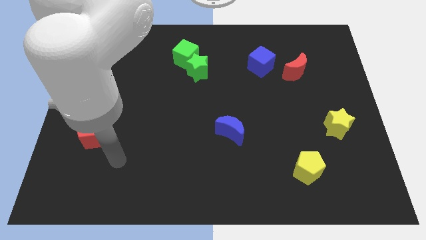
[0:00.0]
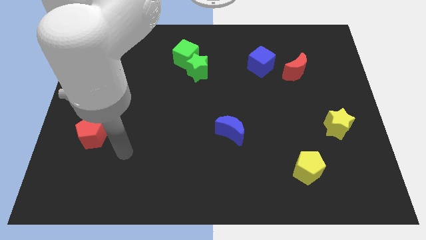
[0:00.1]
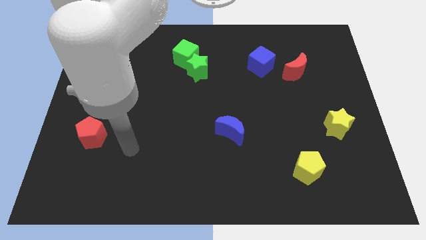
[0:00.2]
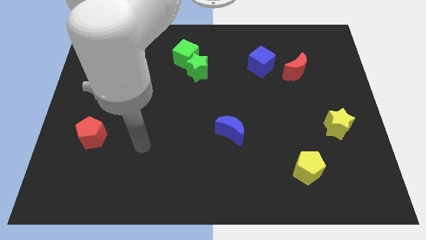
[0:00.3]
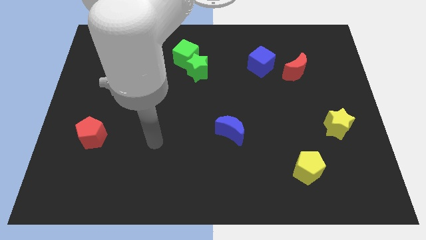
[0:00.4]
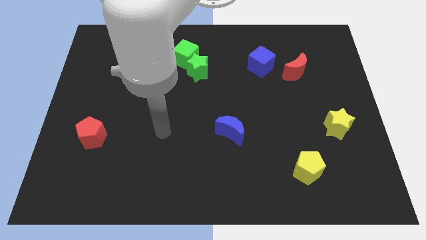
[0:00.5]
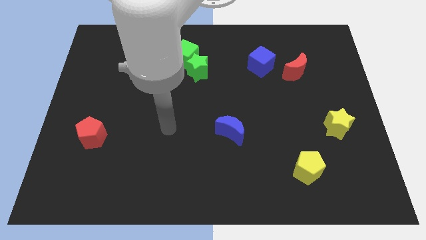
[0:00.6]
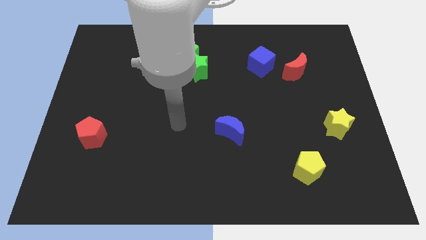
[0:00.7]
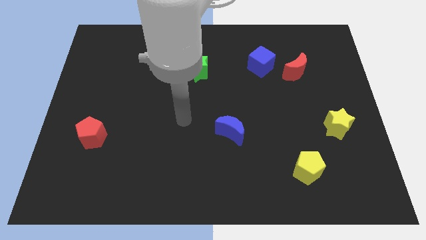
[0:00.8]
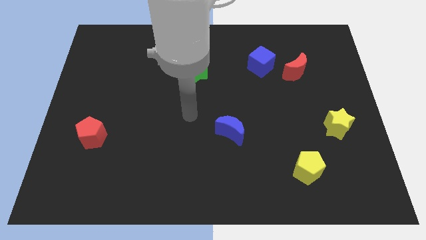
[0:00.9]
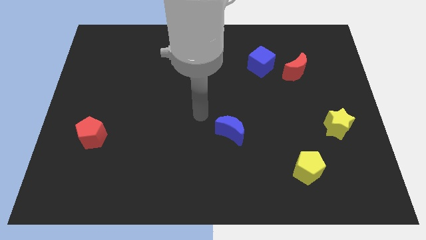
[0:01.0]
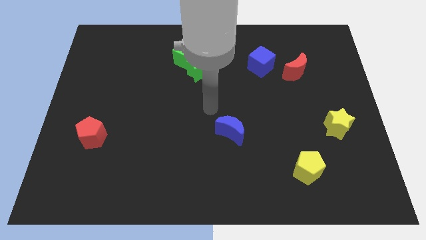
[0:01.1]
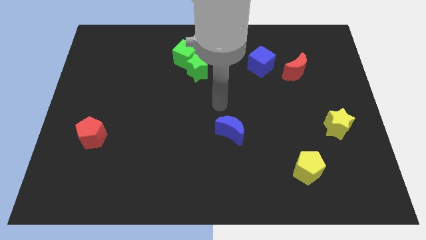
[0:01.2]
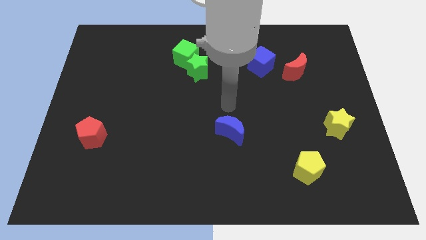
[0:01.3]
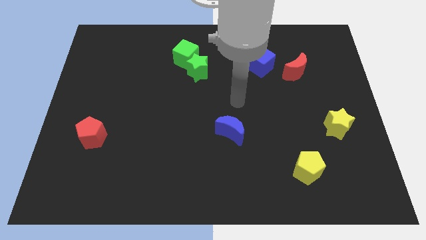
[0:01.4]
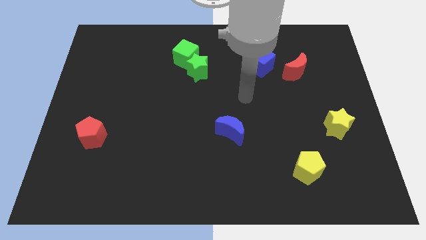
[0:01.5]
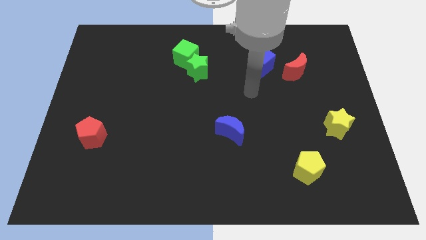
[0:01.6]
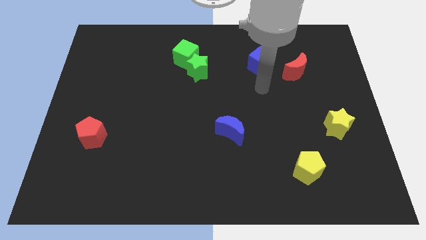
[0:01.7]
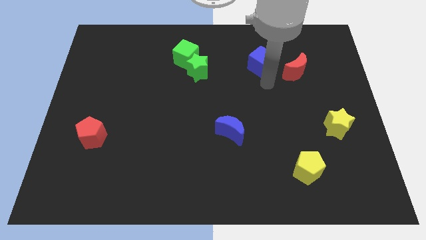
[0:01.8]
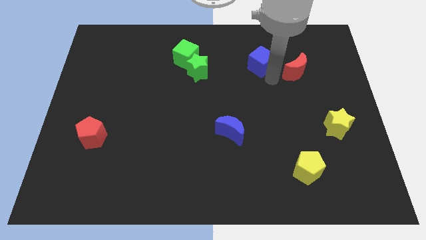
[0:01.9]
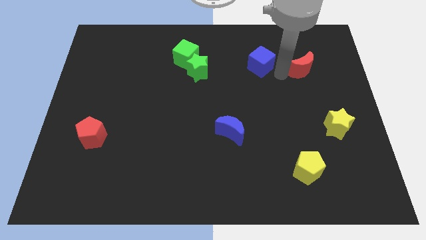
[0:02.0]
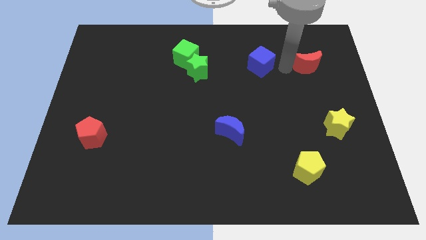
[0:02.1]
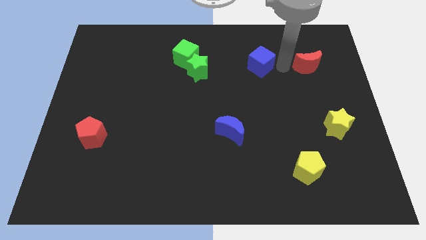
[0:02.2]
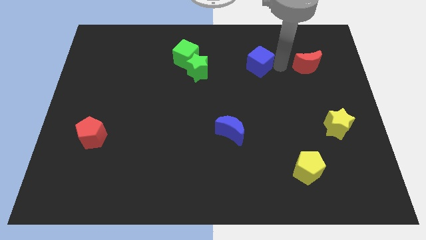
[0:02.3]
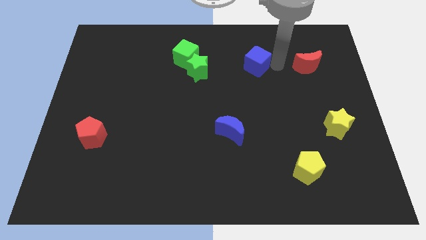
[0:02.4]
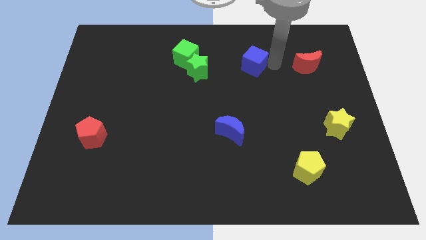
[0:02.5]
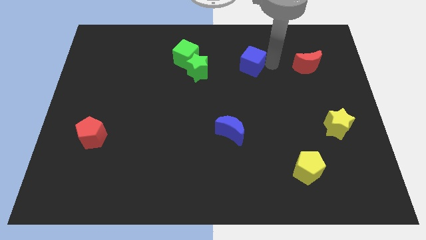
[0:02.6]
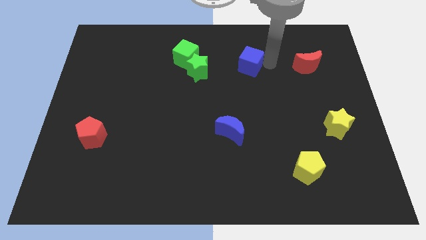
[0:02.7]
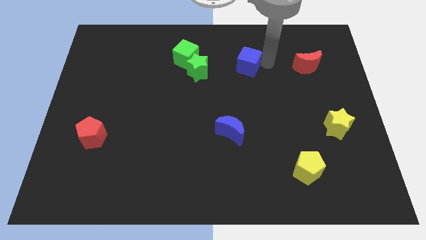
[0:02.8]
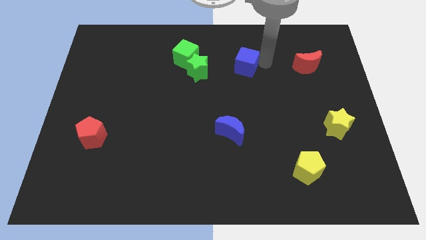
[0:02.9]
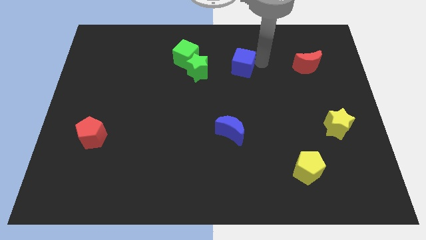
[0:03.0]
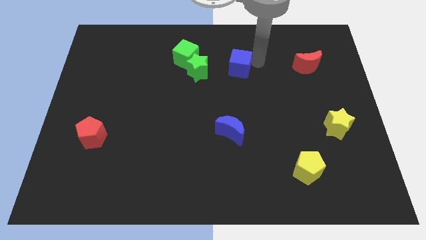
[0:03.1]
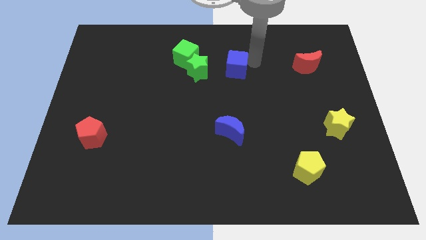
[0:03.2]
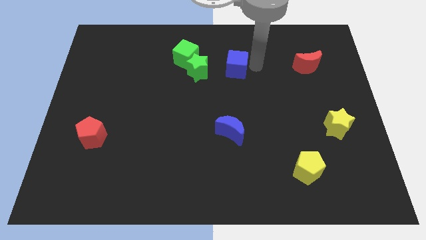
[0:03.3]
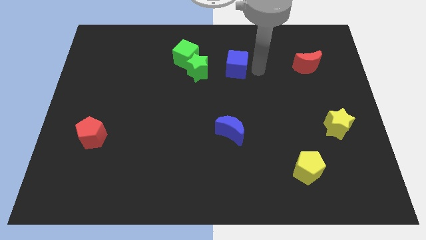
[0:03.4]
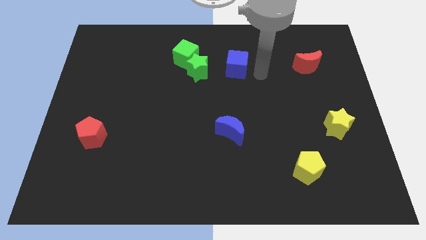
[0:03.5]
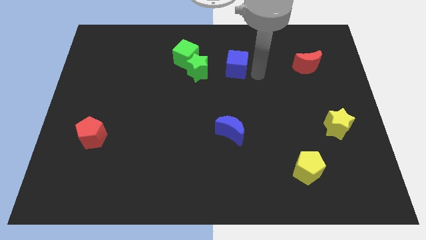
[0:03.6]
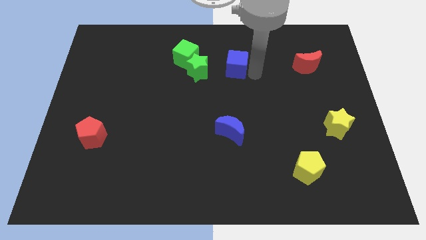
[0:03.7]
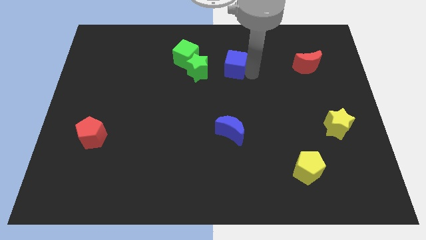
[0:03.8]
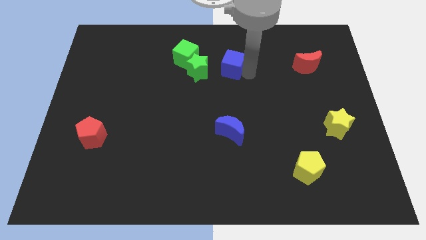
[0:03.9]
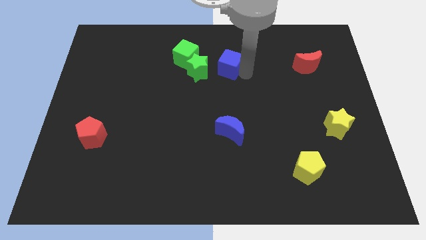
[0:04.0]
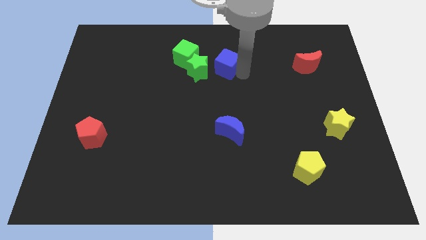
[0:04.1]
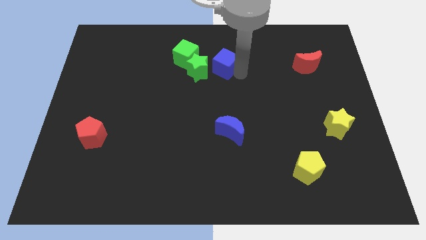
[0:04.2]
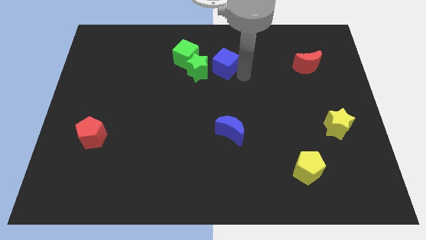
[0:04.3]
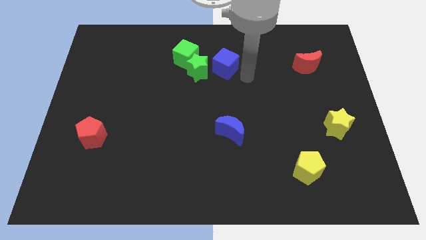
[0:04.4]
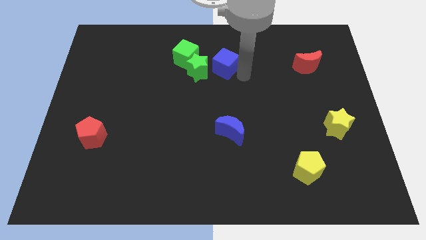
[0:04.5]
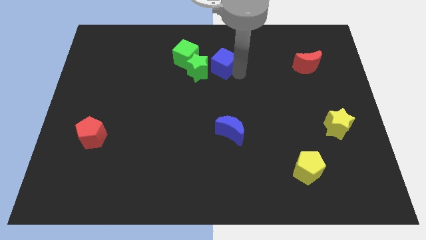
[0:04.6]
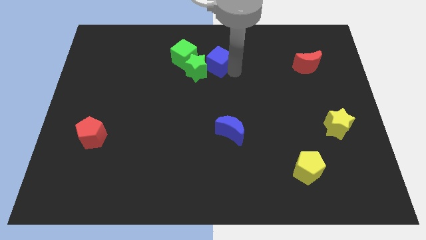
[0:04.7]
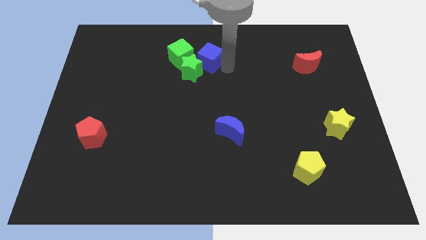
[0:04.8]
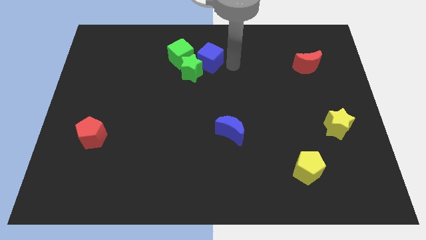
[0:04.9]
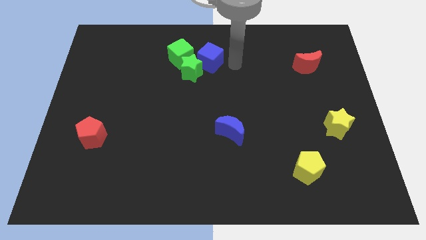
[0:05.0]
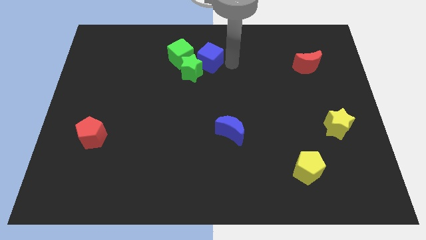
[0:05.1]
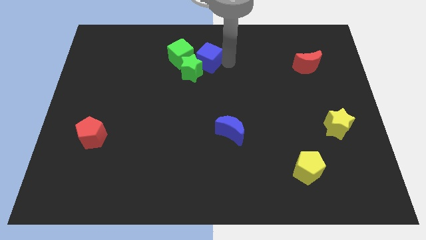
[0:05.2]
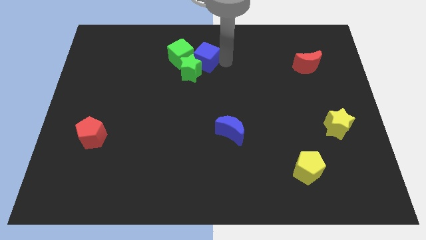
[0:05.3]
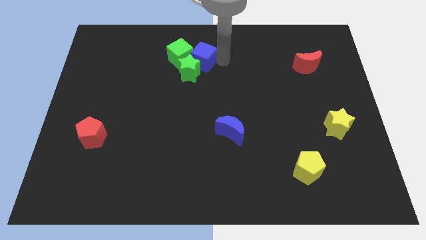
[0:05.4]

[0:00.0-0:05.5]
push the blue cube close to the green cube

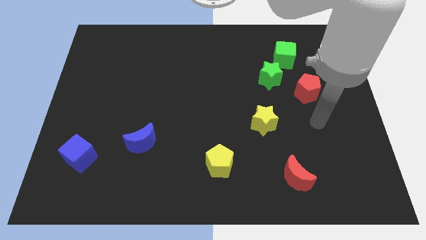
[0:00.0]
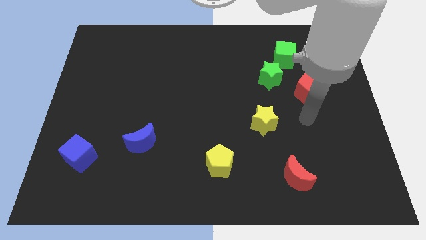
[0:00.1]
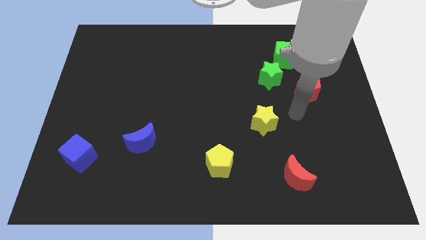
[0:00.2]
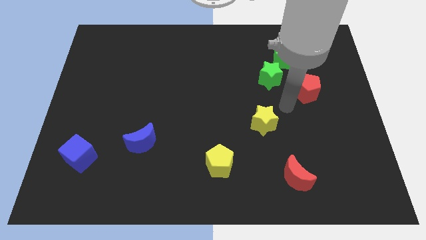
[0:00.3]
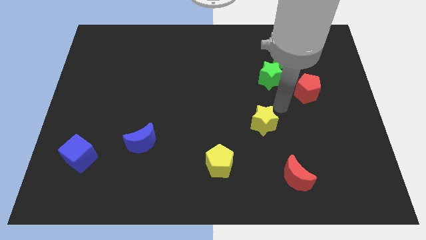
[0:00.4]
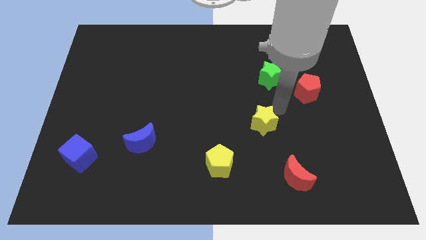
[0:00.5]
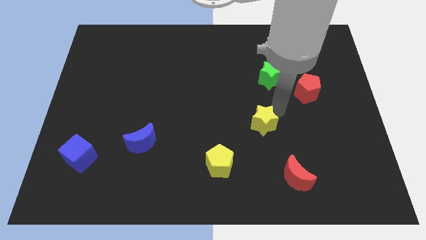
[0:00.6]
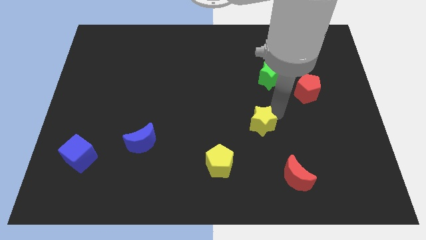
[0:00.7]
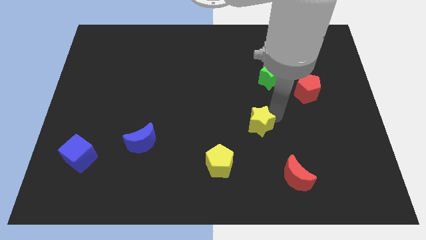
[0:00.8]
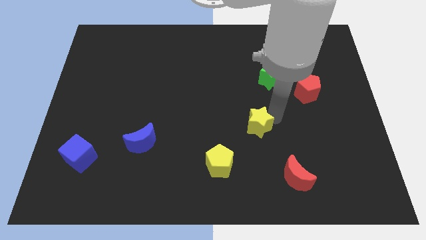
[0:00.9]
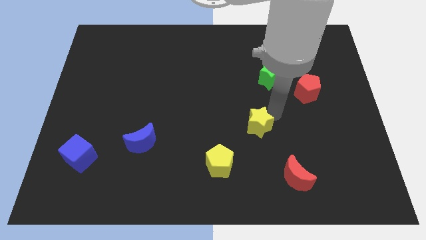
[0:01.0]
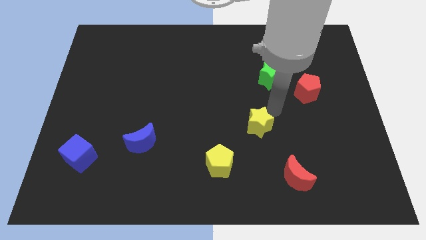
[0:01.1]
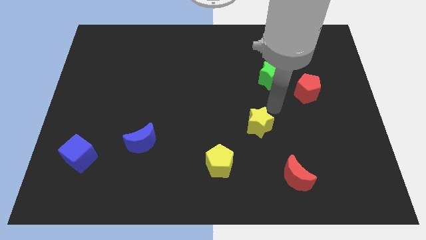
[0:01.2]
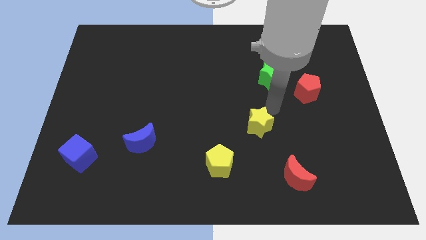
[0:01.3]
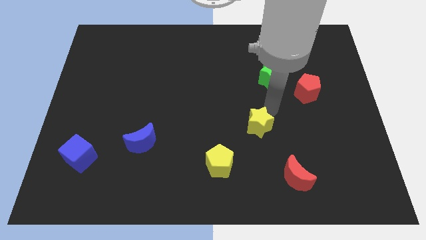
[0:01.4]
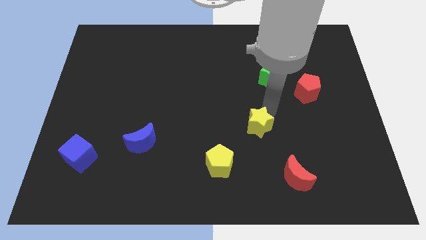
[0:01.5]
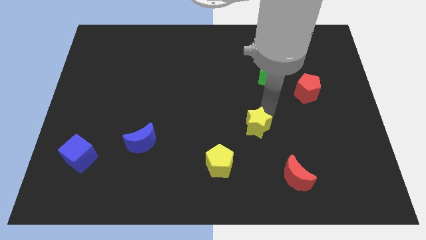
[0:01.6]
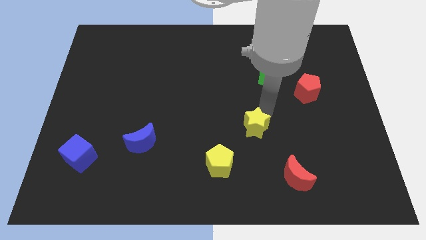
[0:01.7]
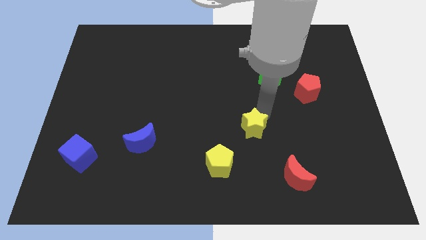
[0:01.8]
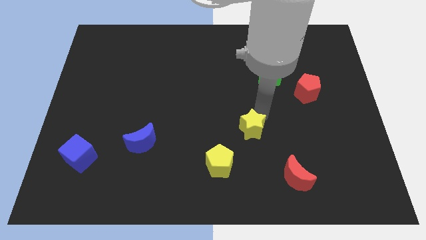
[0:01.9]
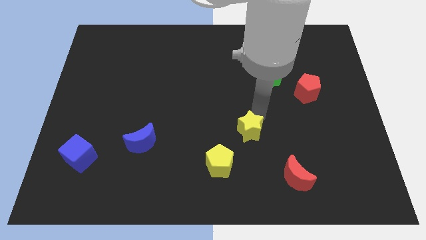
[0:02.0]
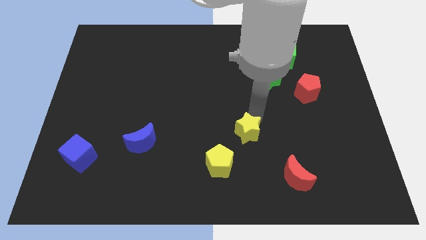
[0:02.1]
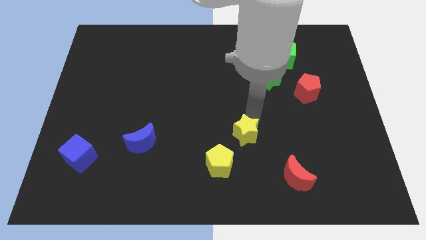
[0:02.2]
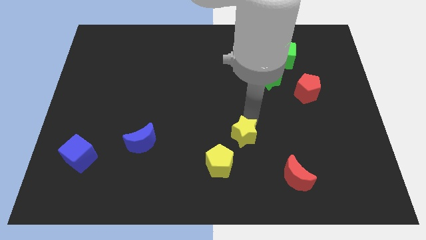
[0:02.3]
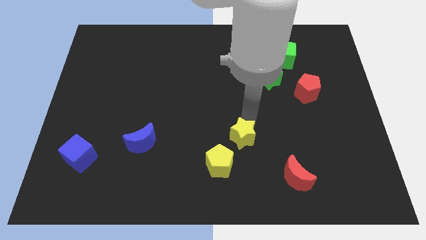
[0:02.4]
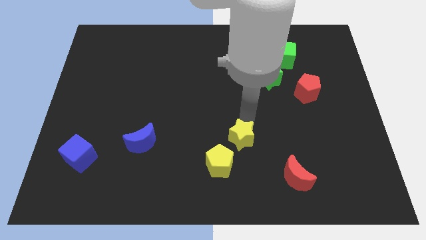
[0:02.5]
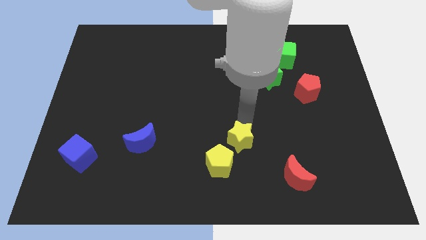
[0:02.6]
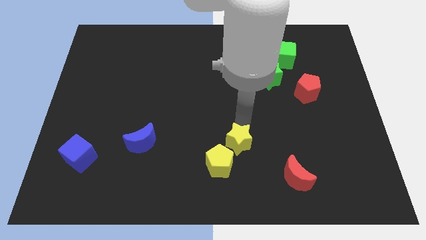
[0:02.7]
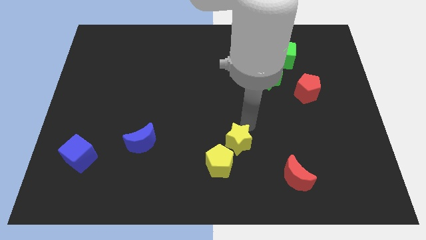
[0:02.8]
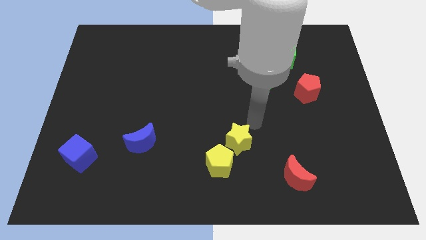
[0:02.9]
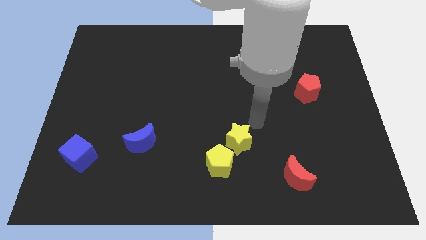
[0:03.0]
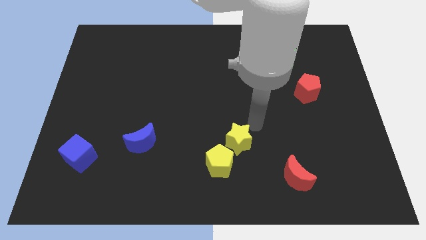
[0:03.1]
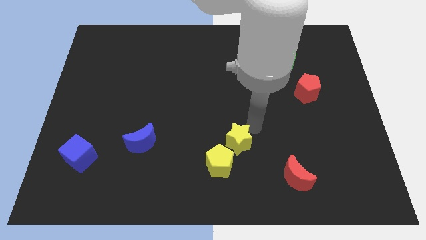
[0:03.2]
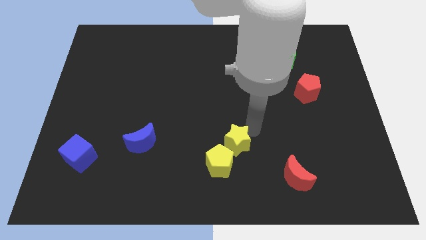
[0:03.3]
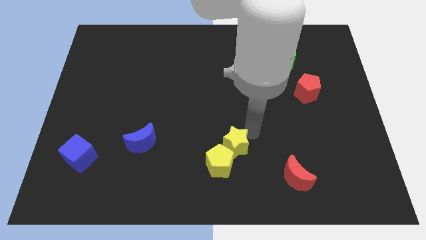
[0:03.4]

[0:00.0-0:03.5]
push the yellow star to the yellow pentagon
